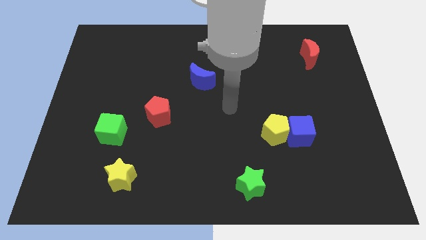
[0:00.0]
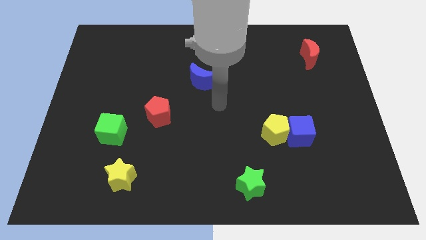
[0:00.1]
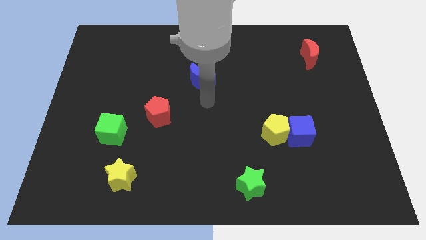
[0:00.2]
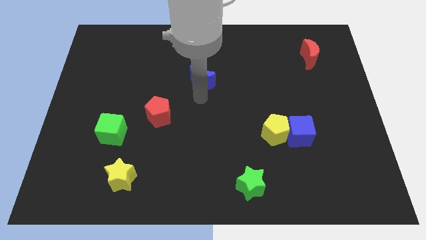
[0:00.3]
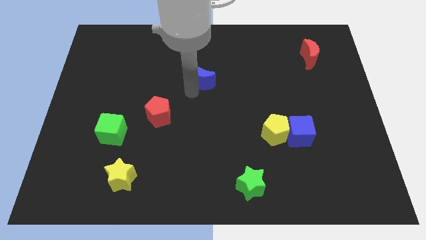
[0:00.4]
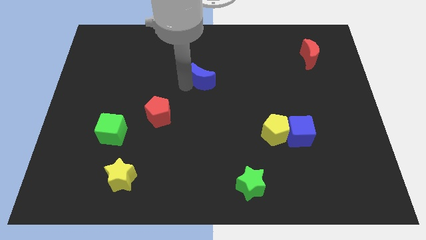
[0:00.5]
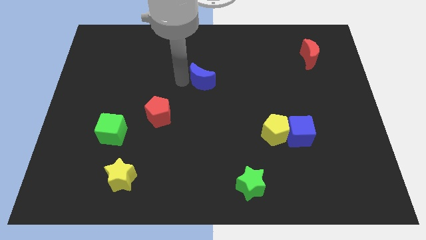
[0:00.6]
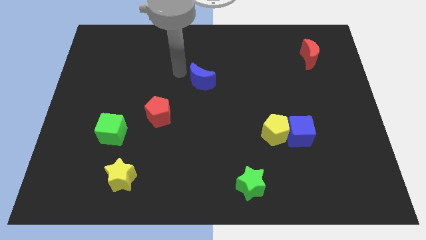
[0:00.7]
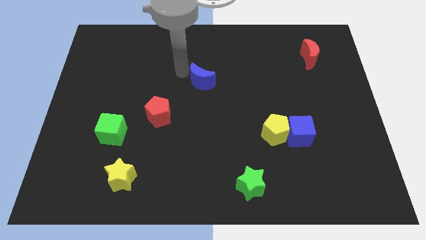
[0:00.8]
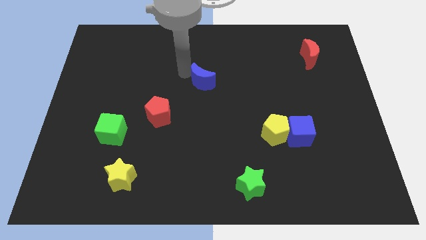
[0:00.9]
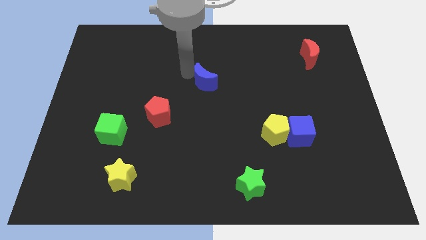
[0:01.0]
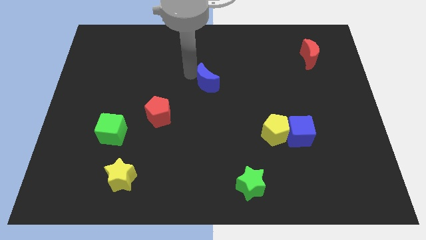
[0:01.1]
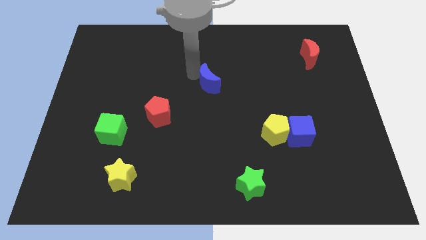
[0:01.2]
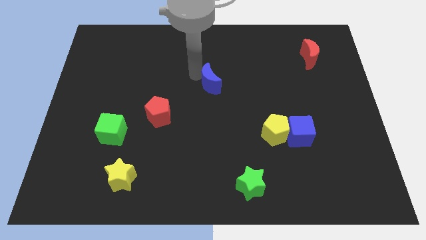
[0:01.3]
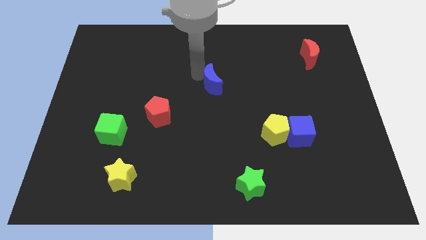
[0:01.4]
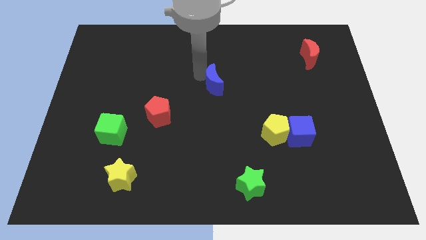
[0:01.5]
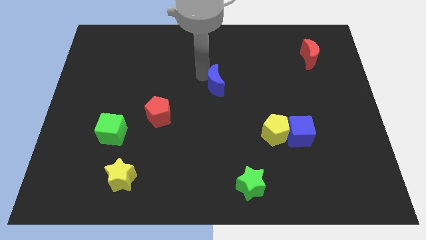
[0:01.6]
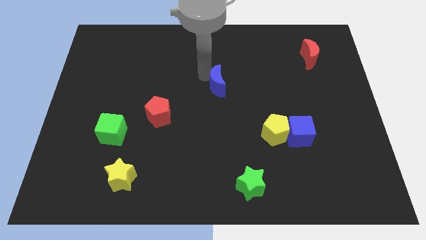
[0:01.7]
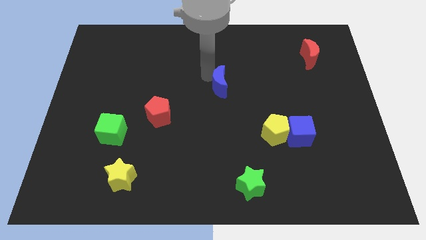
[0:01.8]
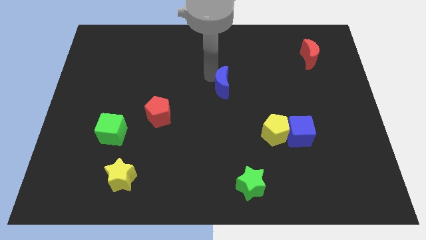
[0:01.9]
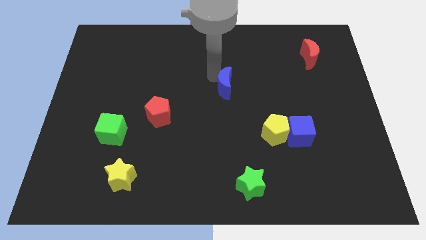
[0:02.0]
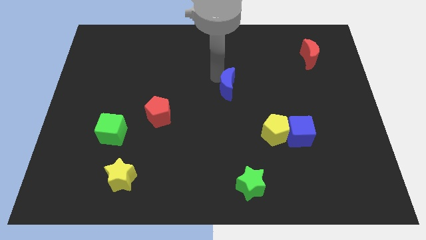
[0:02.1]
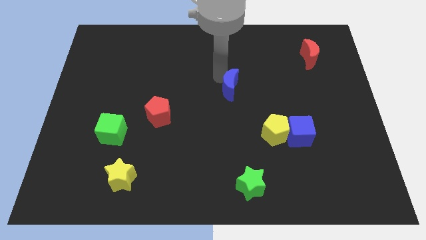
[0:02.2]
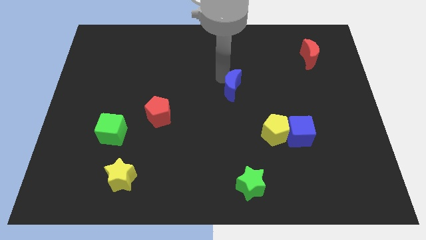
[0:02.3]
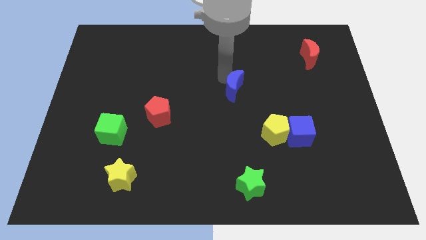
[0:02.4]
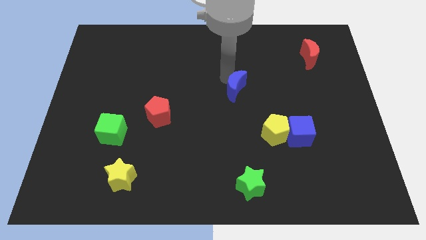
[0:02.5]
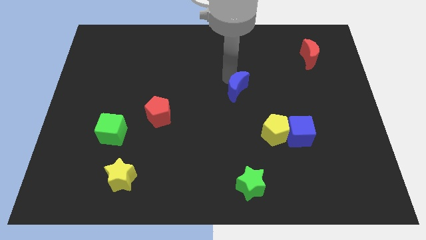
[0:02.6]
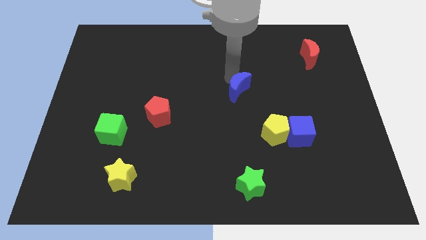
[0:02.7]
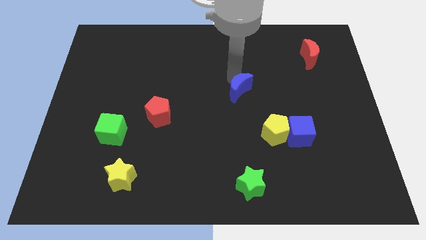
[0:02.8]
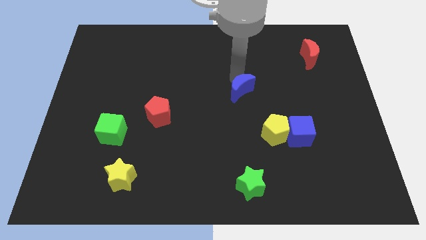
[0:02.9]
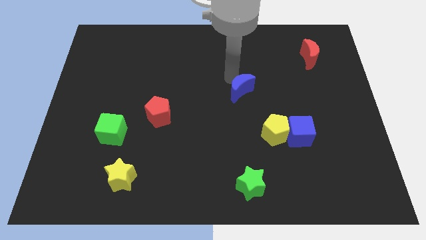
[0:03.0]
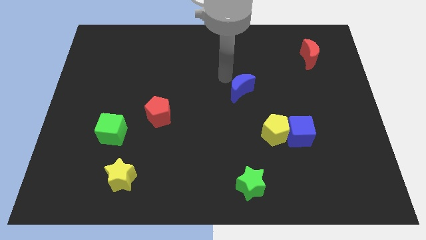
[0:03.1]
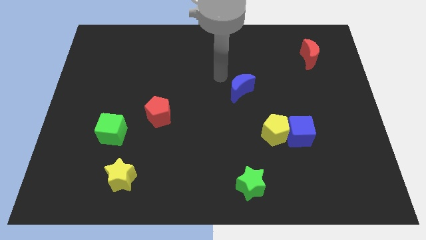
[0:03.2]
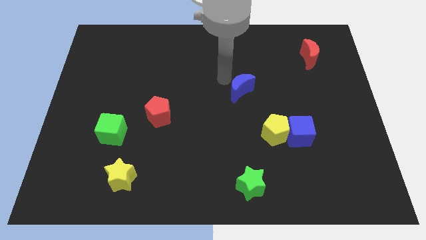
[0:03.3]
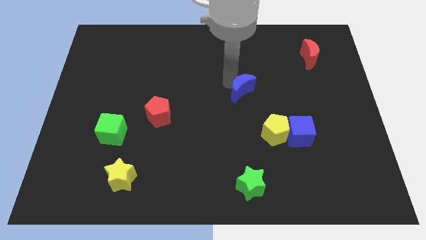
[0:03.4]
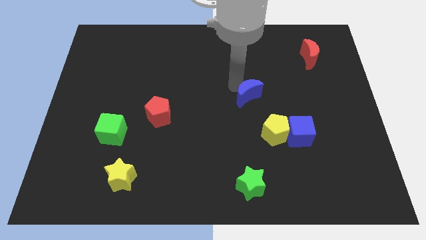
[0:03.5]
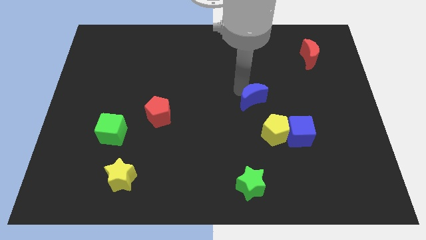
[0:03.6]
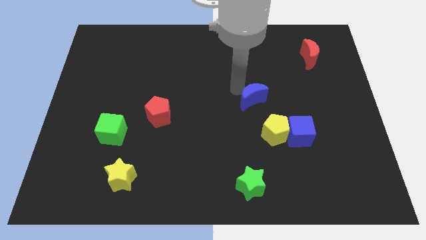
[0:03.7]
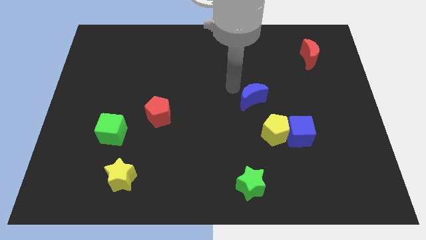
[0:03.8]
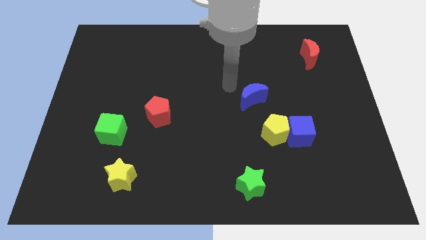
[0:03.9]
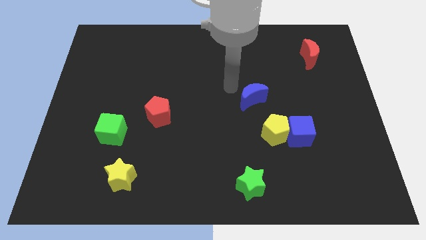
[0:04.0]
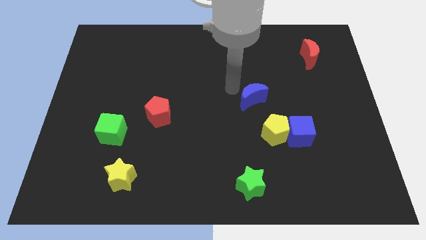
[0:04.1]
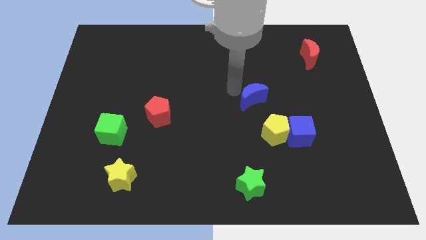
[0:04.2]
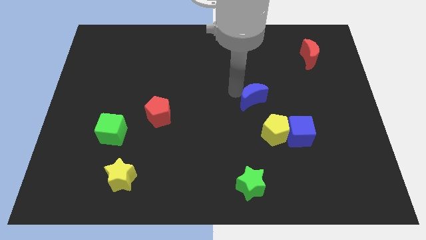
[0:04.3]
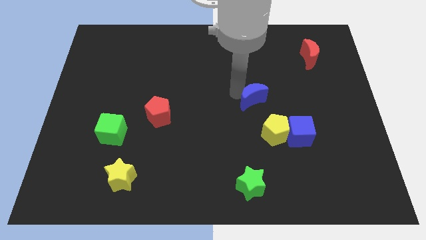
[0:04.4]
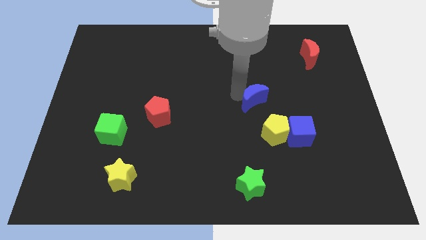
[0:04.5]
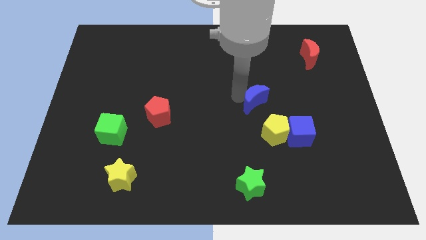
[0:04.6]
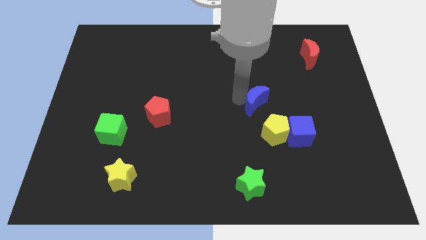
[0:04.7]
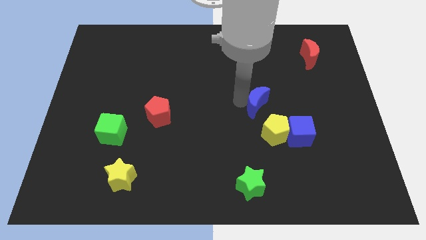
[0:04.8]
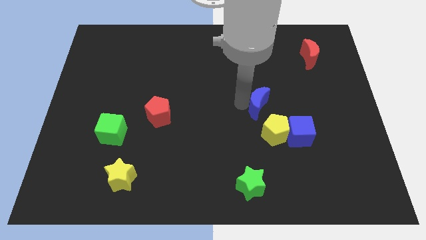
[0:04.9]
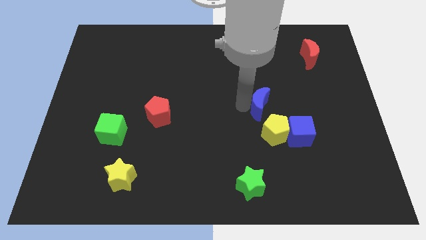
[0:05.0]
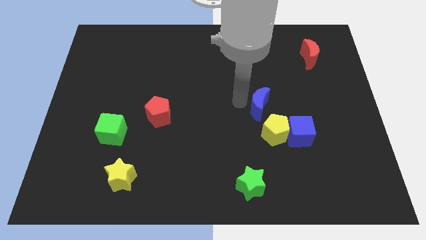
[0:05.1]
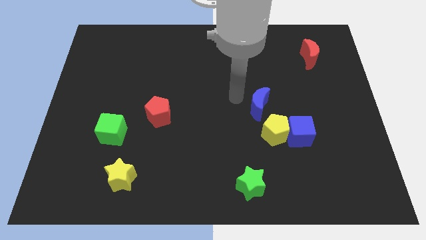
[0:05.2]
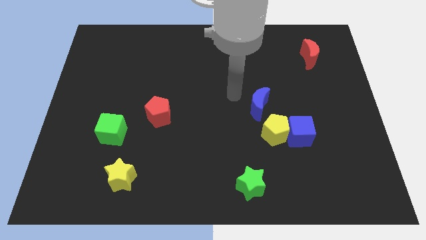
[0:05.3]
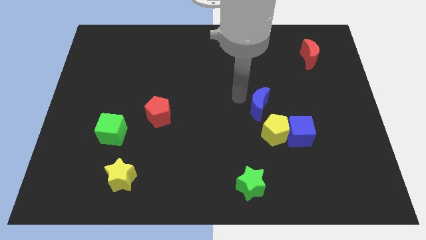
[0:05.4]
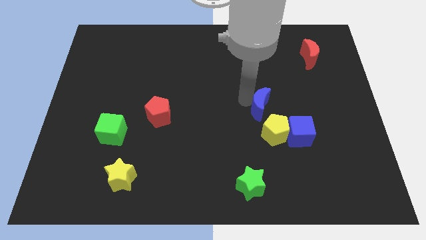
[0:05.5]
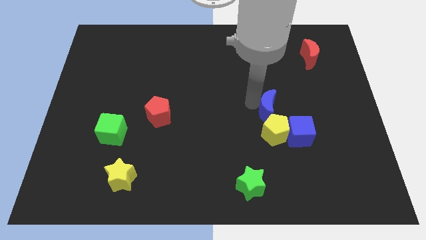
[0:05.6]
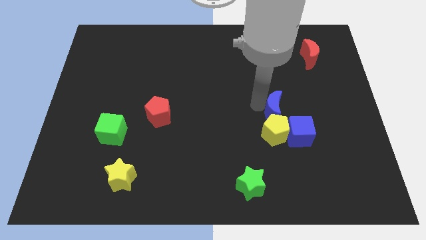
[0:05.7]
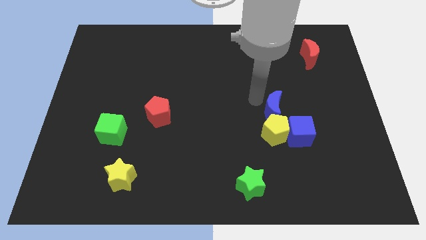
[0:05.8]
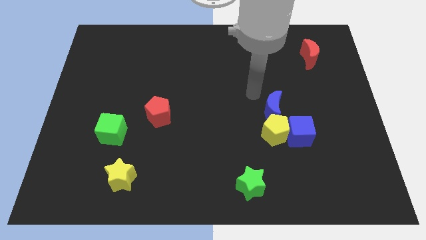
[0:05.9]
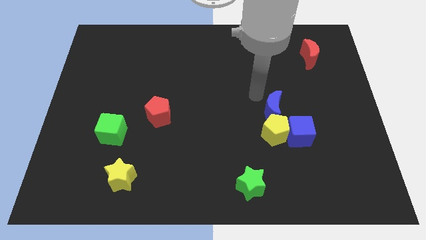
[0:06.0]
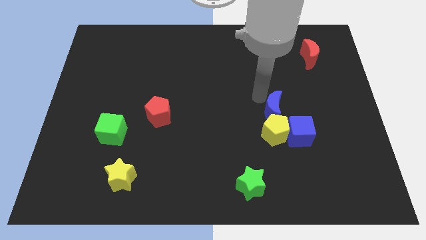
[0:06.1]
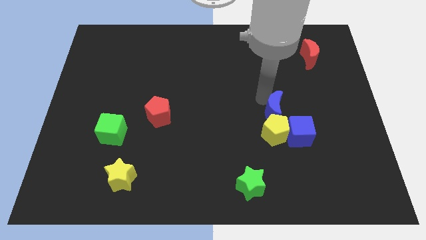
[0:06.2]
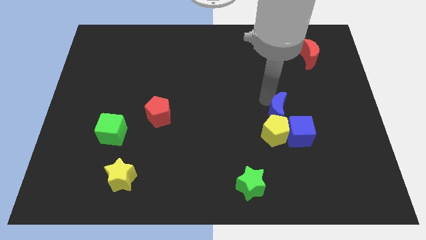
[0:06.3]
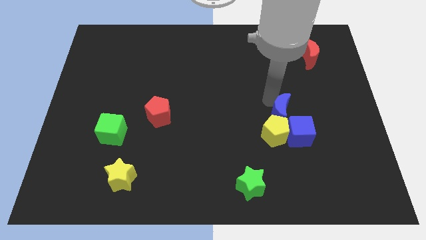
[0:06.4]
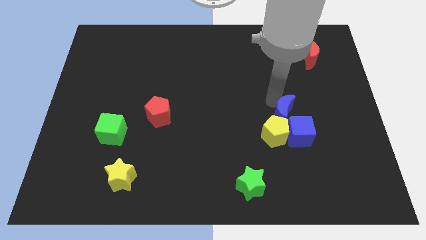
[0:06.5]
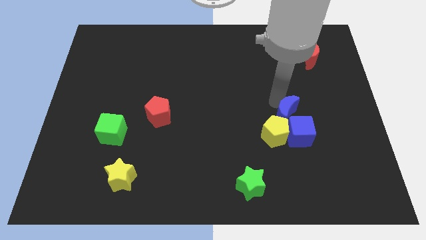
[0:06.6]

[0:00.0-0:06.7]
push the blue moon to the blue cube

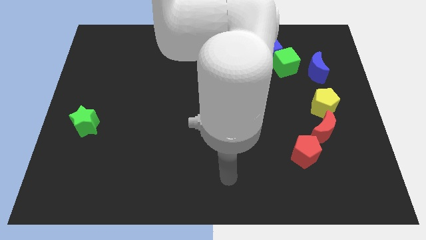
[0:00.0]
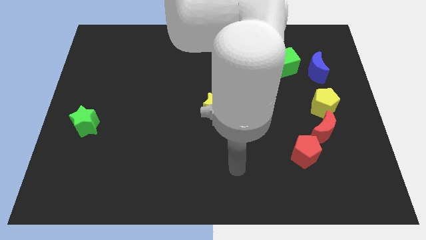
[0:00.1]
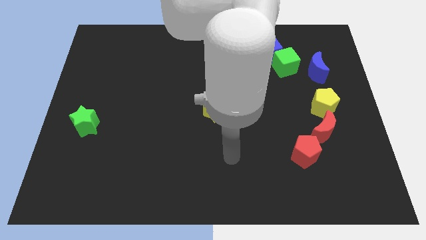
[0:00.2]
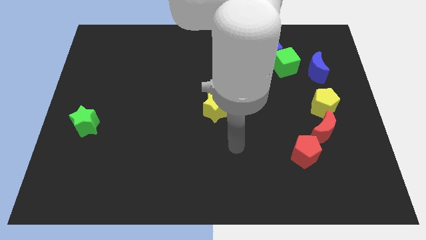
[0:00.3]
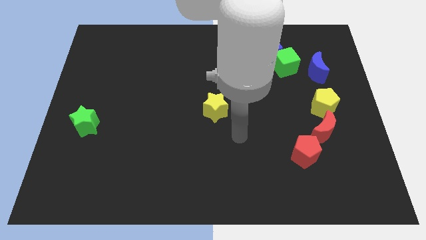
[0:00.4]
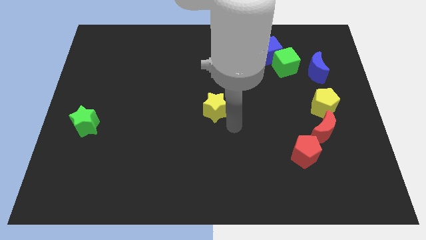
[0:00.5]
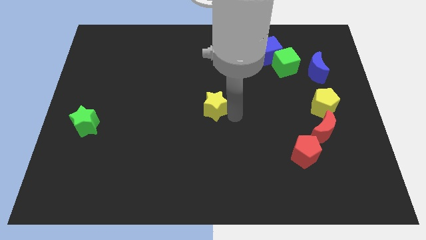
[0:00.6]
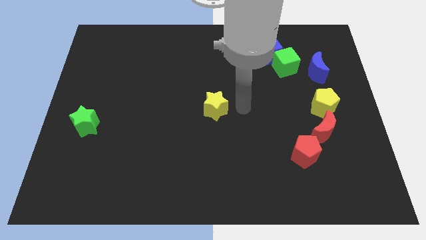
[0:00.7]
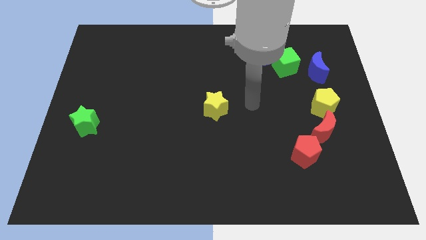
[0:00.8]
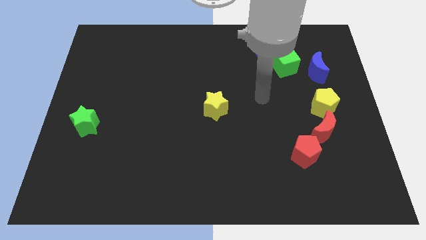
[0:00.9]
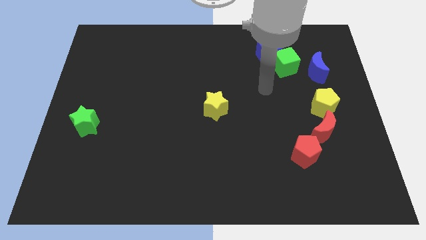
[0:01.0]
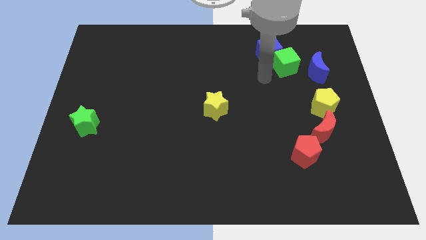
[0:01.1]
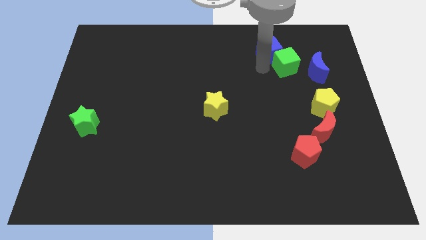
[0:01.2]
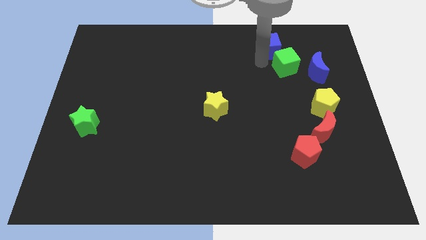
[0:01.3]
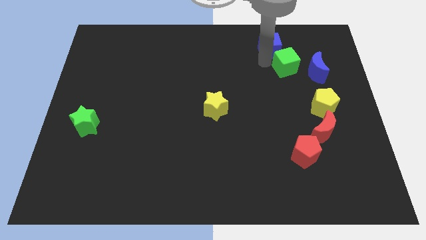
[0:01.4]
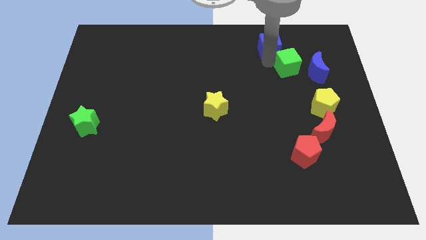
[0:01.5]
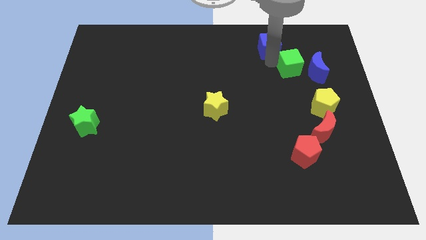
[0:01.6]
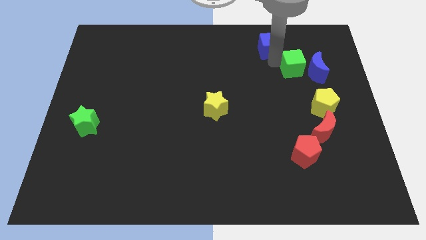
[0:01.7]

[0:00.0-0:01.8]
push the green cube to the blue moon
